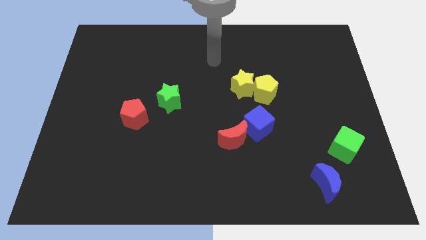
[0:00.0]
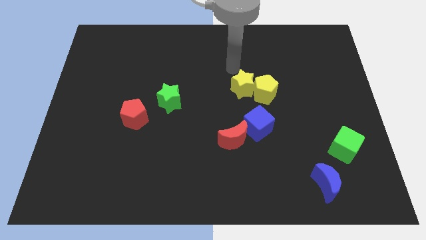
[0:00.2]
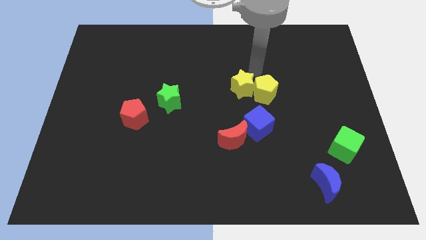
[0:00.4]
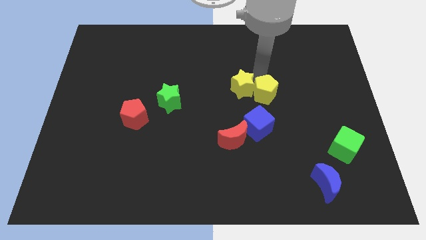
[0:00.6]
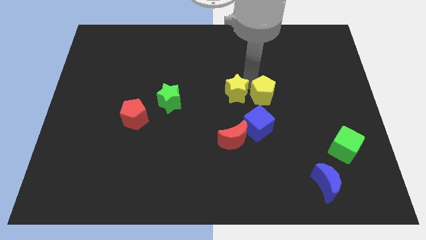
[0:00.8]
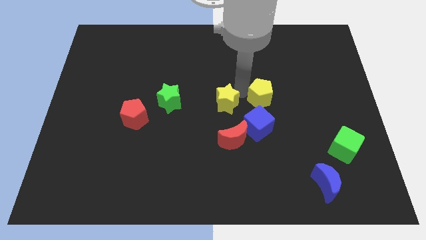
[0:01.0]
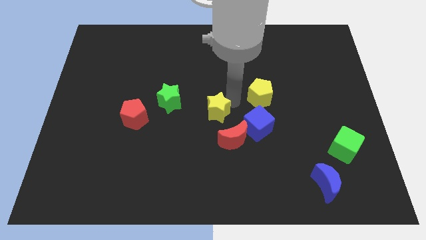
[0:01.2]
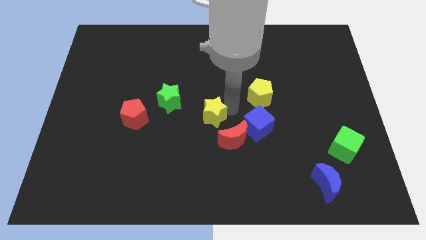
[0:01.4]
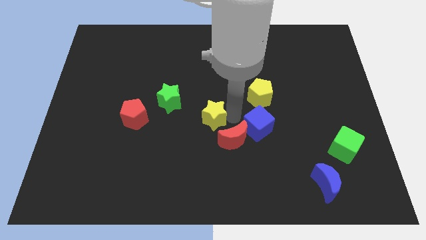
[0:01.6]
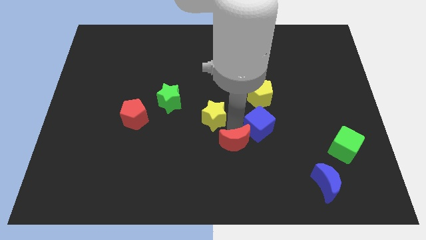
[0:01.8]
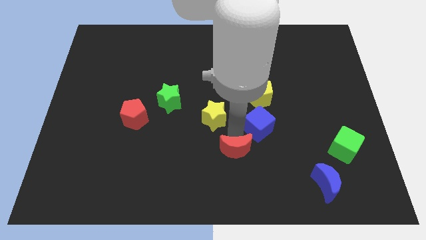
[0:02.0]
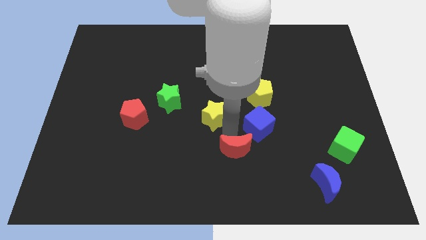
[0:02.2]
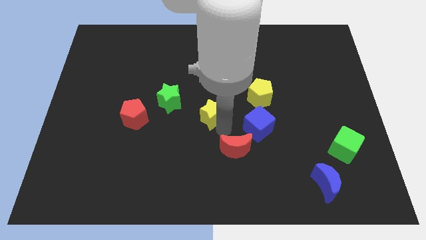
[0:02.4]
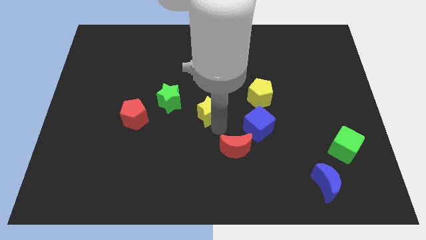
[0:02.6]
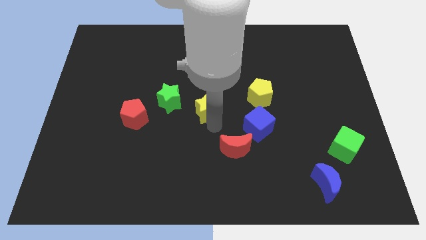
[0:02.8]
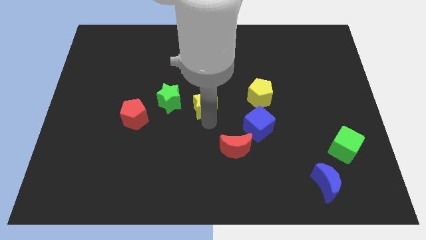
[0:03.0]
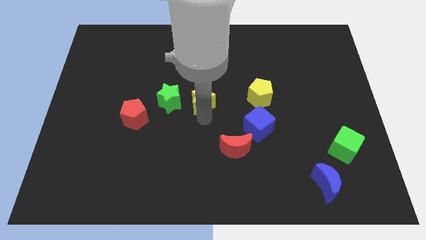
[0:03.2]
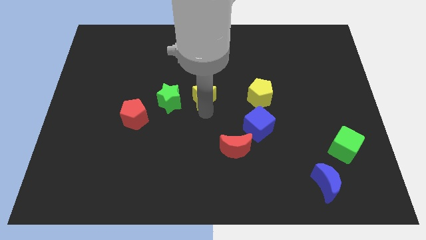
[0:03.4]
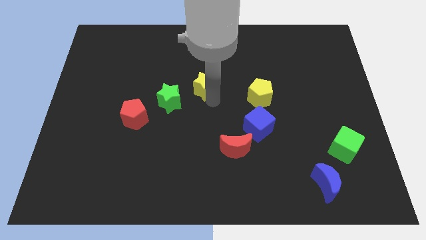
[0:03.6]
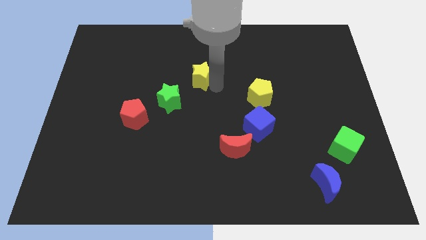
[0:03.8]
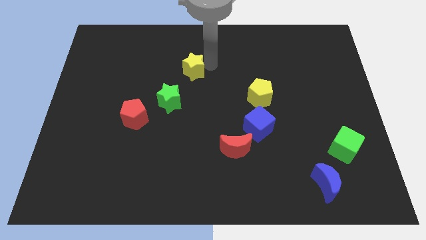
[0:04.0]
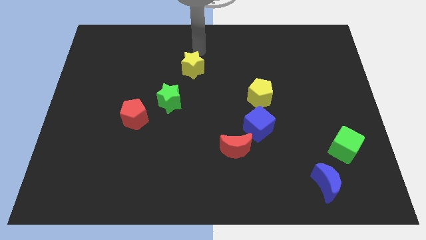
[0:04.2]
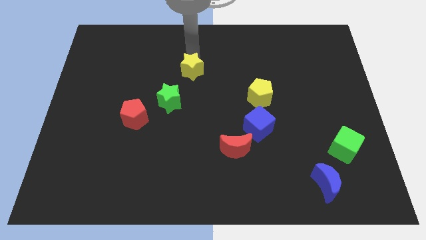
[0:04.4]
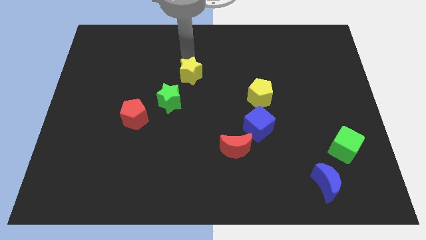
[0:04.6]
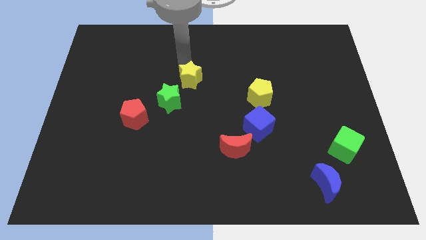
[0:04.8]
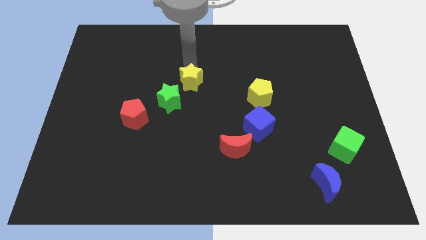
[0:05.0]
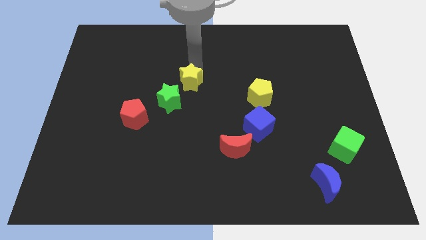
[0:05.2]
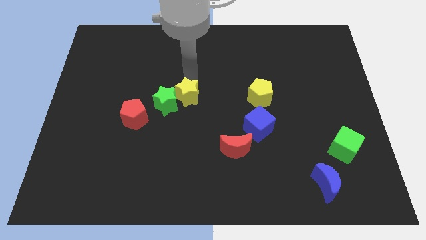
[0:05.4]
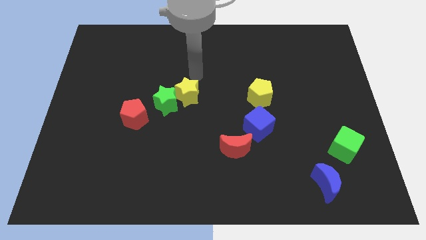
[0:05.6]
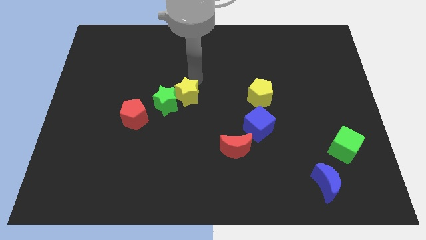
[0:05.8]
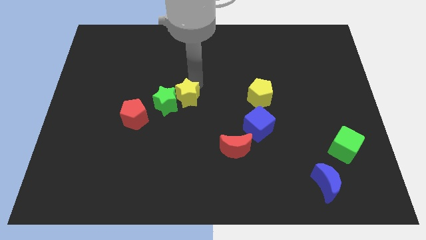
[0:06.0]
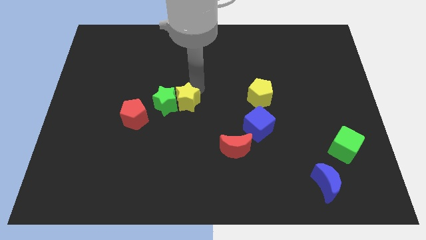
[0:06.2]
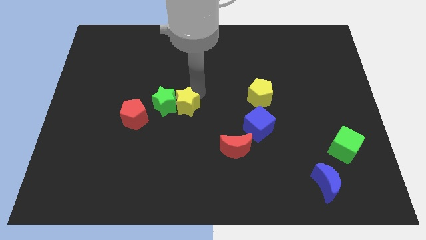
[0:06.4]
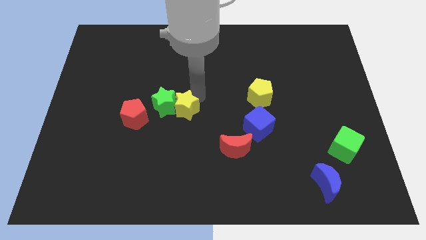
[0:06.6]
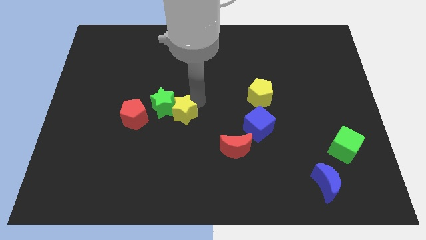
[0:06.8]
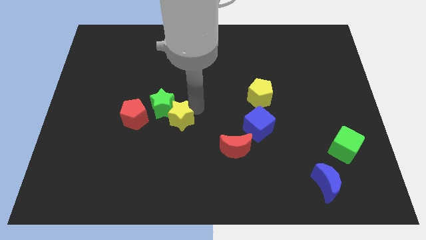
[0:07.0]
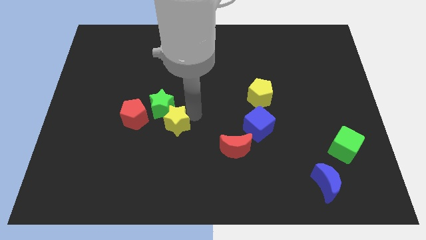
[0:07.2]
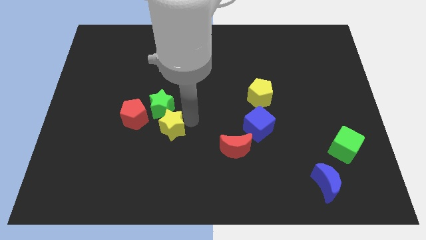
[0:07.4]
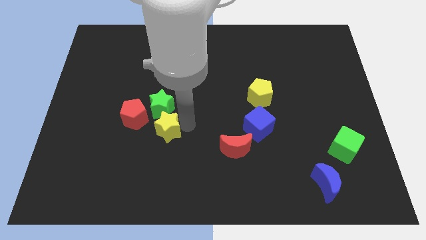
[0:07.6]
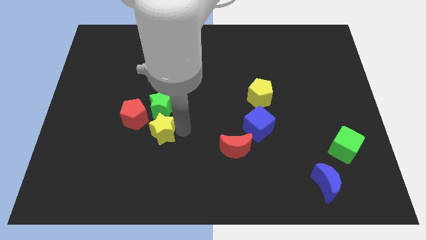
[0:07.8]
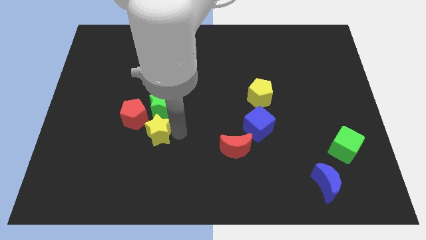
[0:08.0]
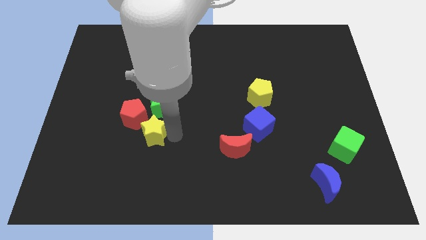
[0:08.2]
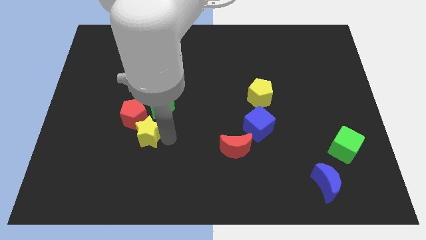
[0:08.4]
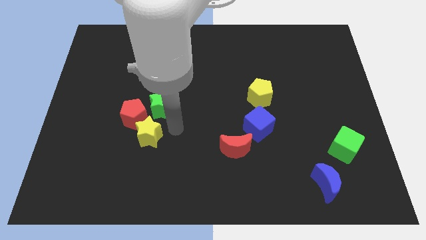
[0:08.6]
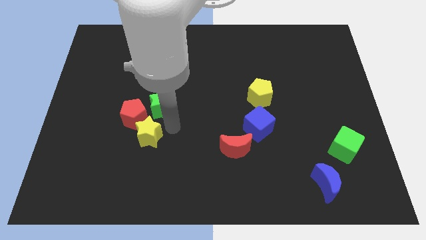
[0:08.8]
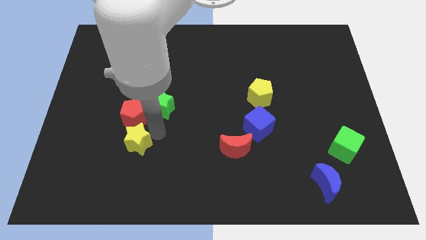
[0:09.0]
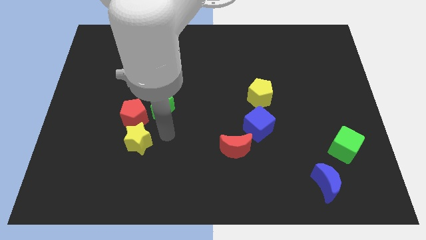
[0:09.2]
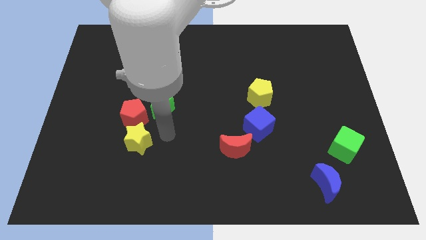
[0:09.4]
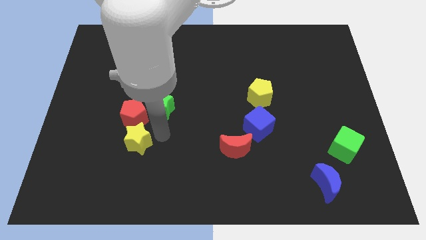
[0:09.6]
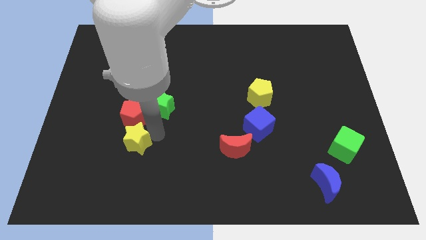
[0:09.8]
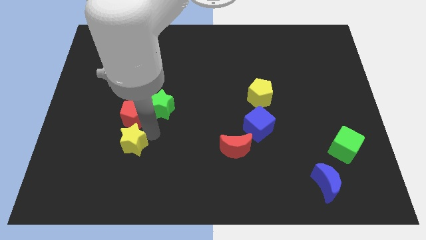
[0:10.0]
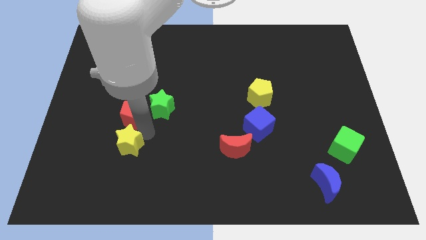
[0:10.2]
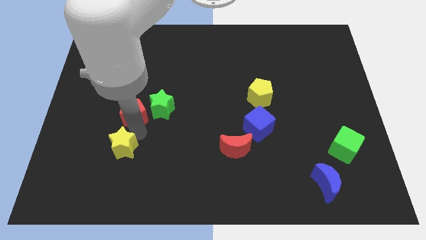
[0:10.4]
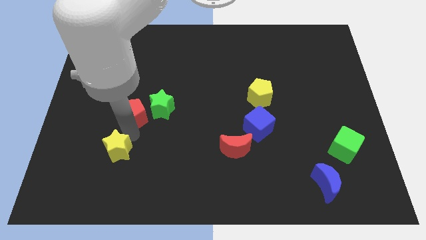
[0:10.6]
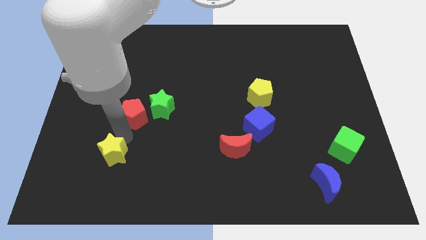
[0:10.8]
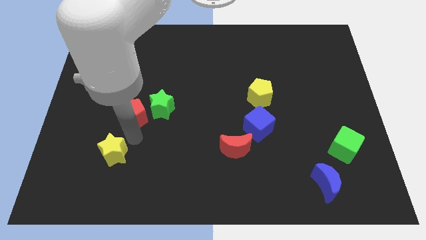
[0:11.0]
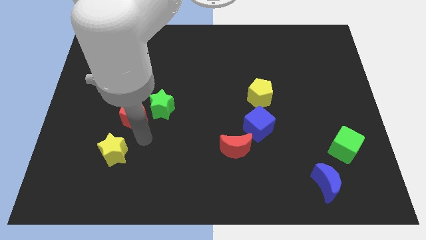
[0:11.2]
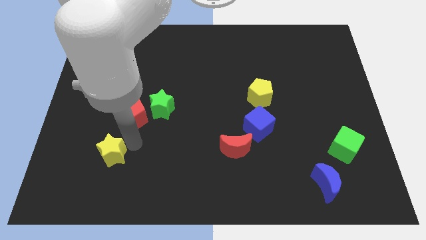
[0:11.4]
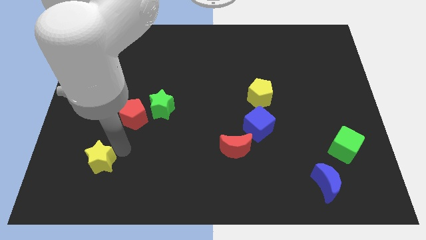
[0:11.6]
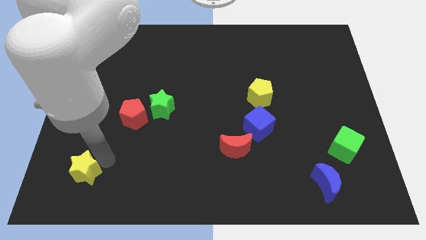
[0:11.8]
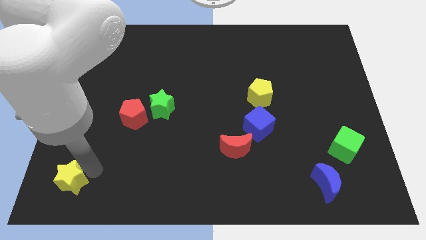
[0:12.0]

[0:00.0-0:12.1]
move the yellow star to the bottom left

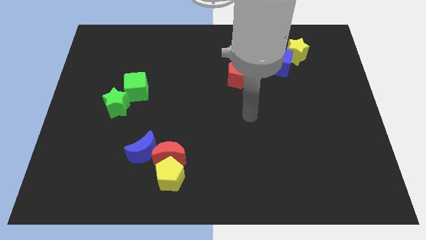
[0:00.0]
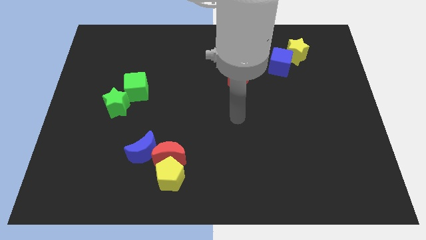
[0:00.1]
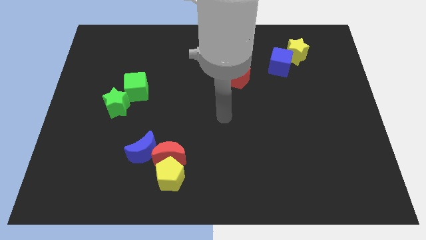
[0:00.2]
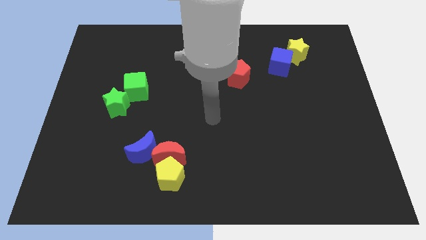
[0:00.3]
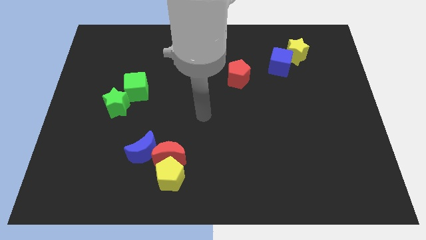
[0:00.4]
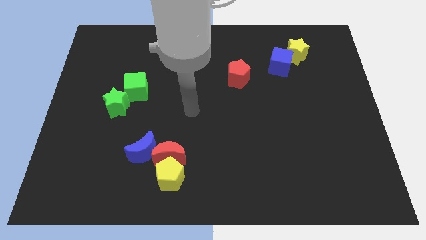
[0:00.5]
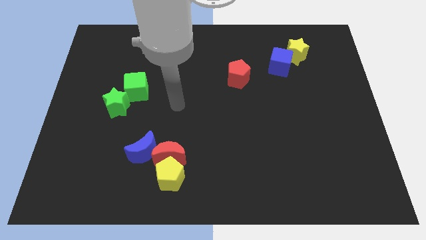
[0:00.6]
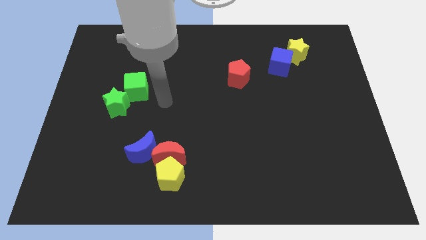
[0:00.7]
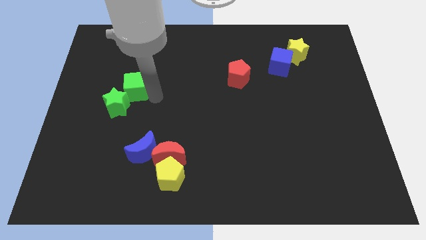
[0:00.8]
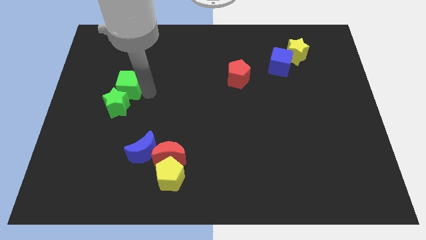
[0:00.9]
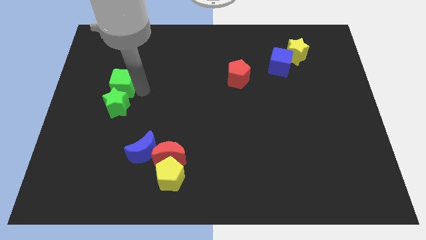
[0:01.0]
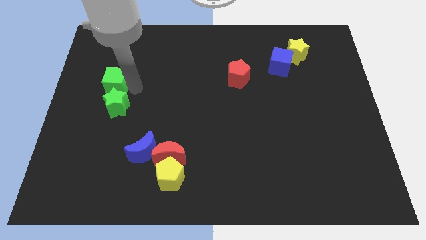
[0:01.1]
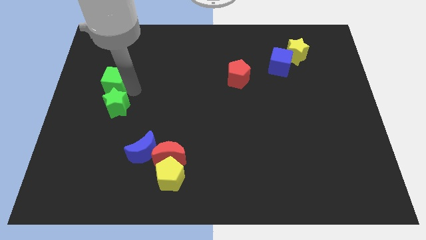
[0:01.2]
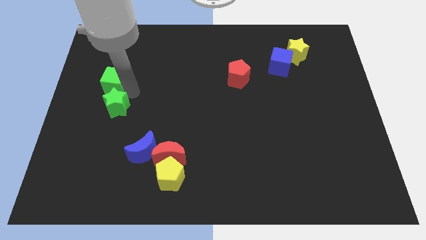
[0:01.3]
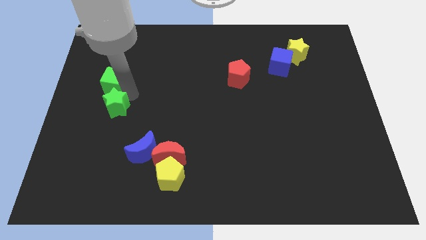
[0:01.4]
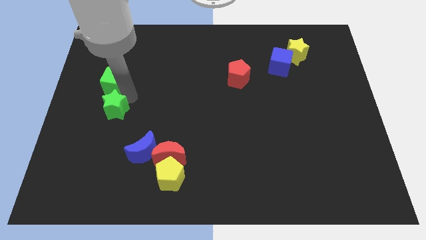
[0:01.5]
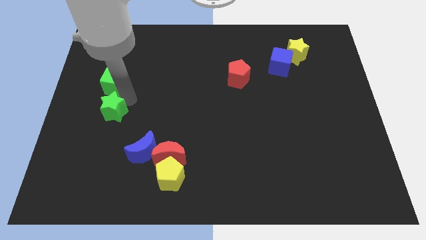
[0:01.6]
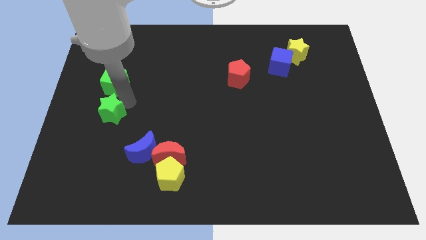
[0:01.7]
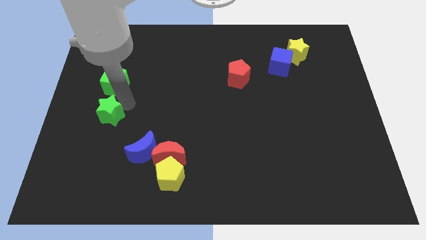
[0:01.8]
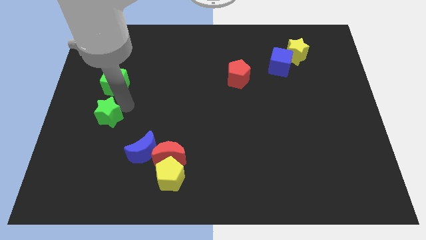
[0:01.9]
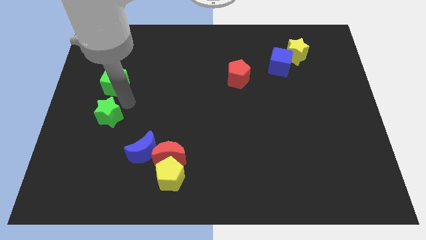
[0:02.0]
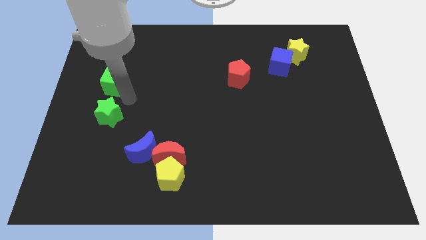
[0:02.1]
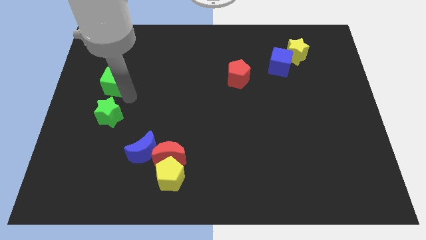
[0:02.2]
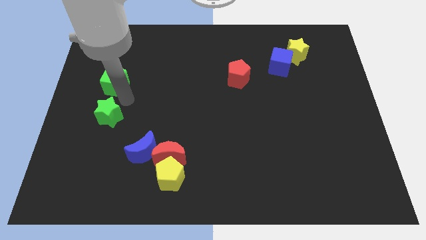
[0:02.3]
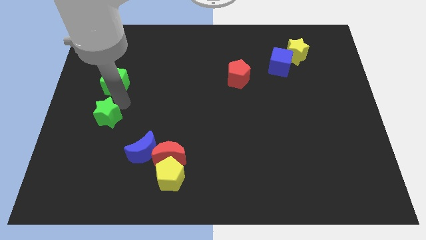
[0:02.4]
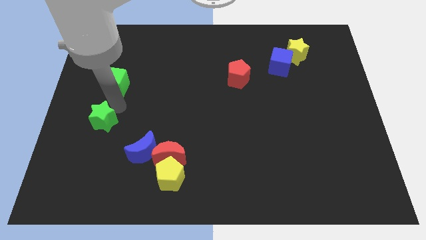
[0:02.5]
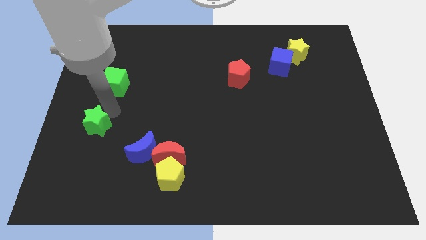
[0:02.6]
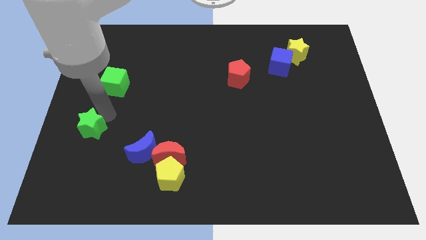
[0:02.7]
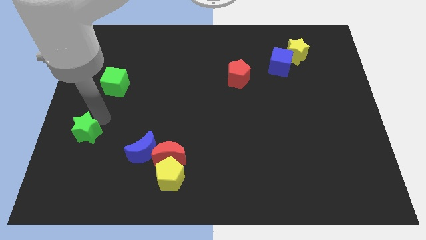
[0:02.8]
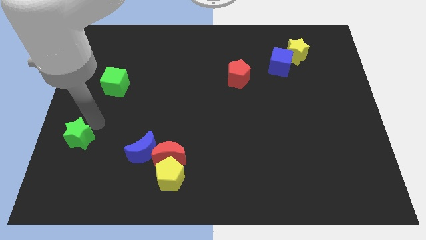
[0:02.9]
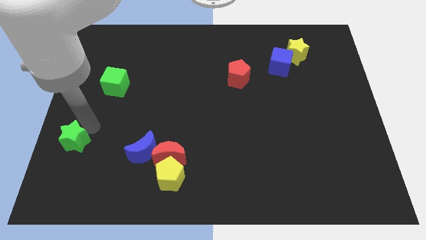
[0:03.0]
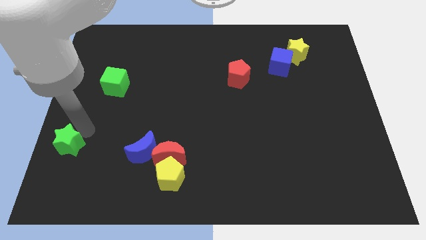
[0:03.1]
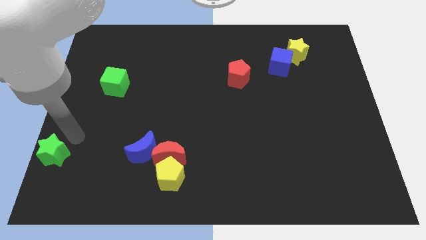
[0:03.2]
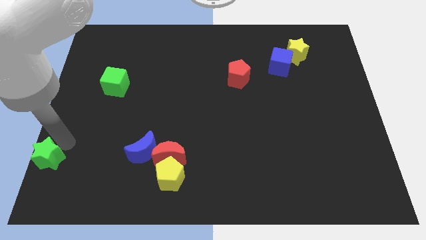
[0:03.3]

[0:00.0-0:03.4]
slide the green star to the lower left corner
